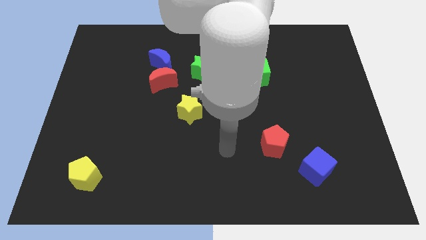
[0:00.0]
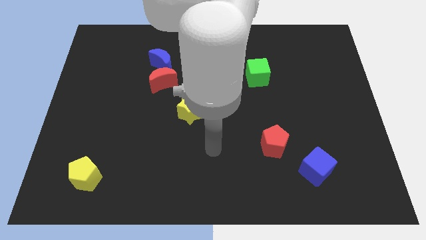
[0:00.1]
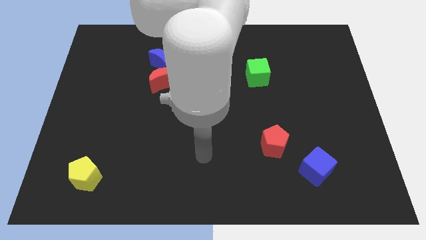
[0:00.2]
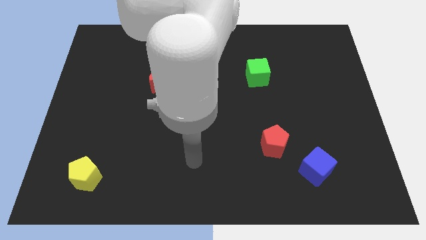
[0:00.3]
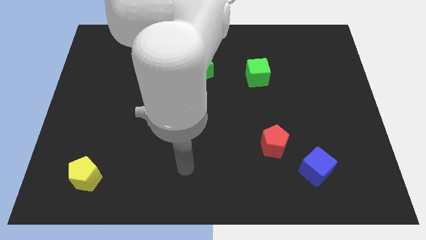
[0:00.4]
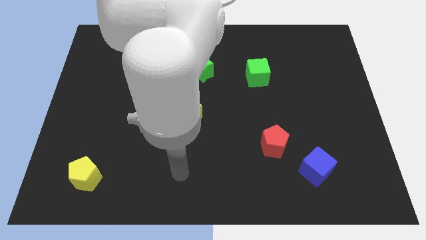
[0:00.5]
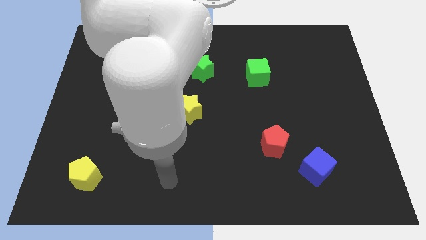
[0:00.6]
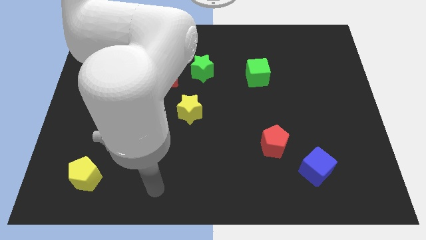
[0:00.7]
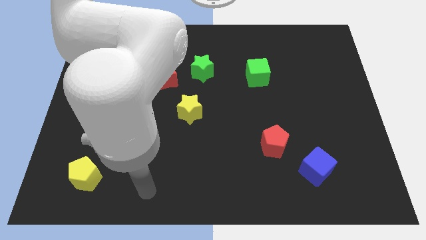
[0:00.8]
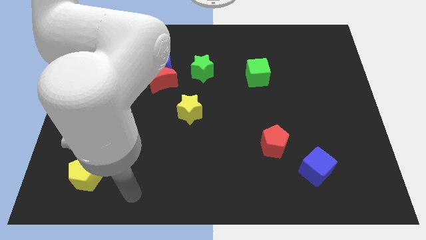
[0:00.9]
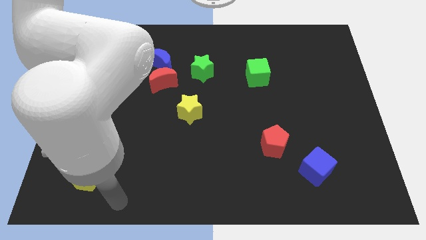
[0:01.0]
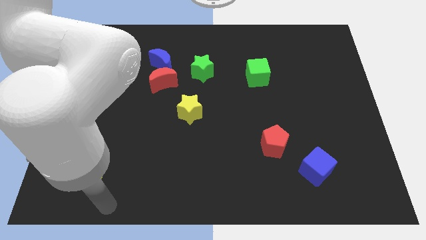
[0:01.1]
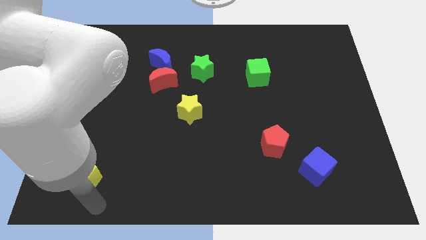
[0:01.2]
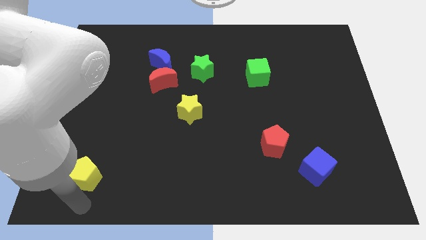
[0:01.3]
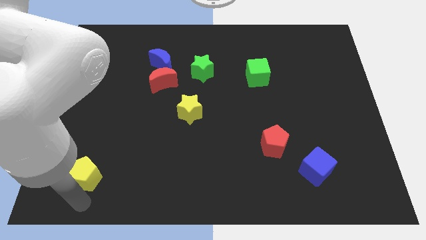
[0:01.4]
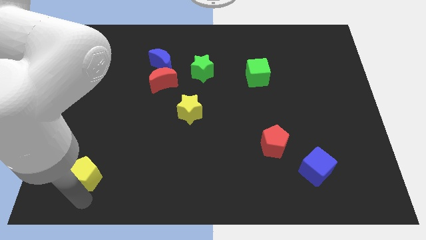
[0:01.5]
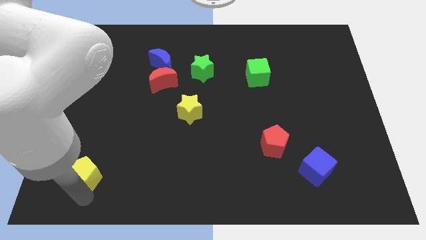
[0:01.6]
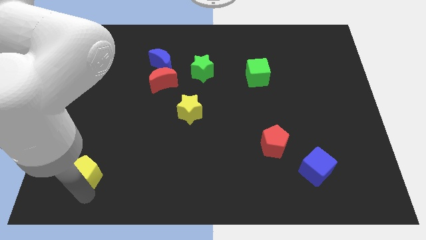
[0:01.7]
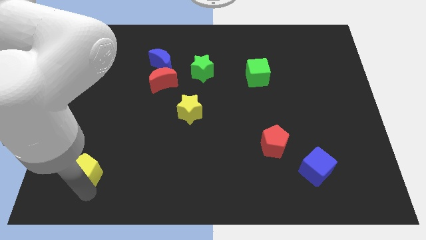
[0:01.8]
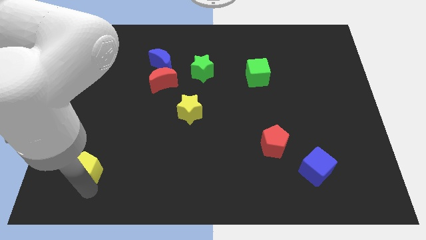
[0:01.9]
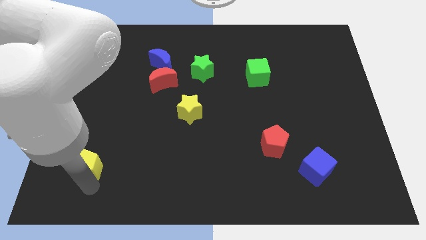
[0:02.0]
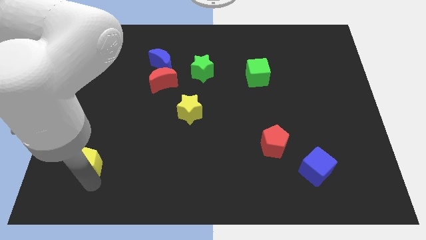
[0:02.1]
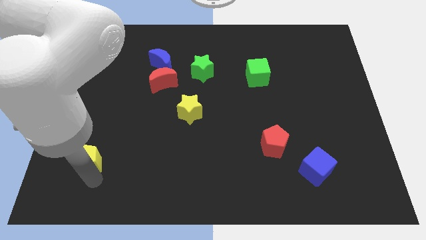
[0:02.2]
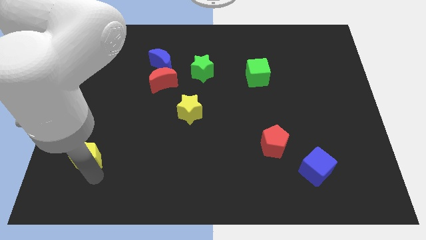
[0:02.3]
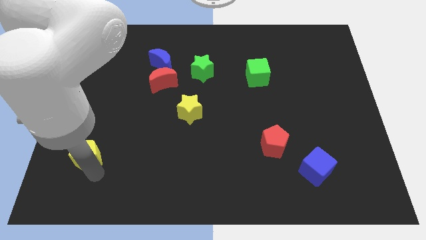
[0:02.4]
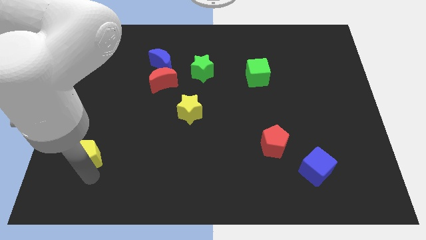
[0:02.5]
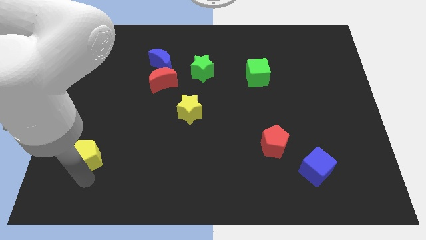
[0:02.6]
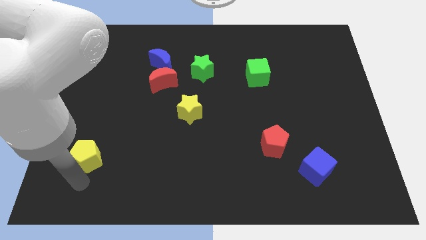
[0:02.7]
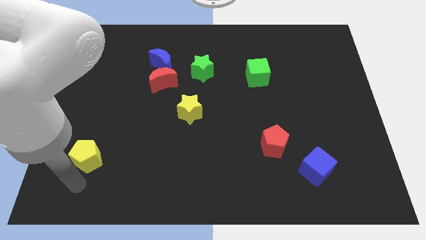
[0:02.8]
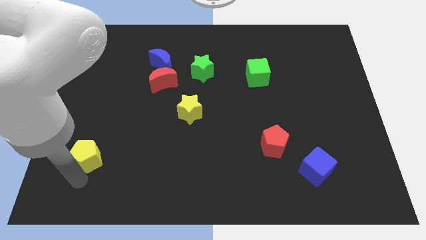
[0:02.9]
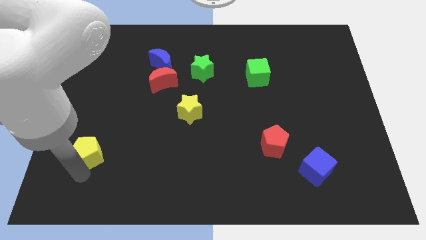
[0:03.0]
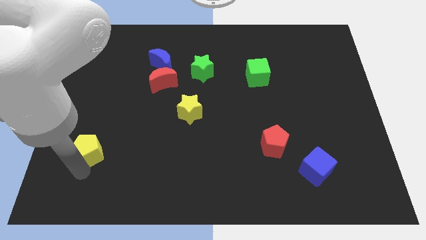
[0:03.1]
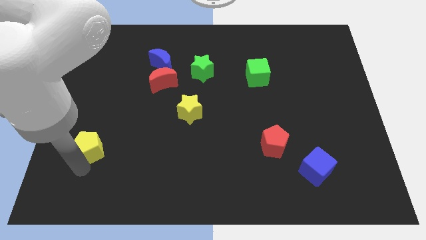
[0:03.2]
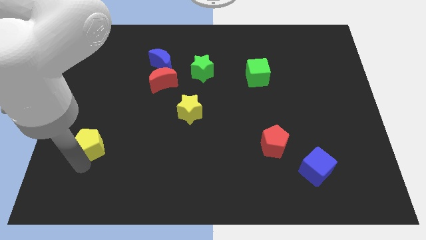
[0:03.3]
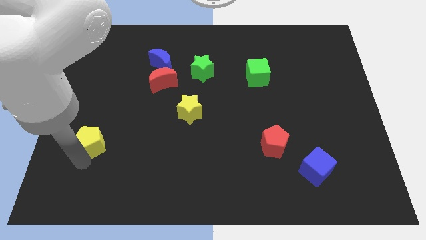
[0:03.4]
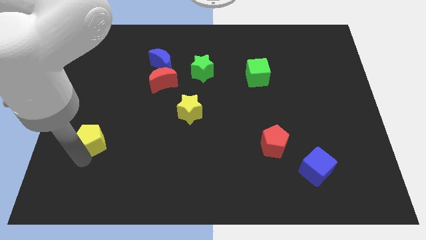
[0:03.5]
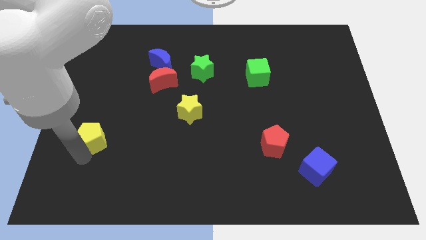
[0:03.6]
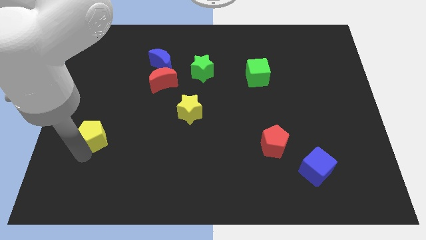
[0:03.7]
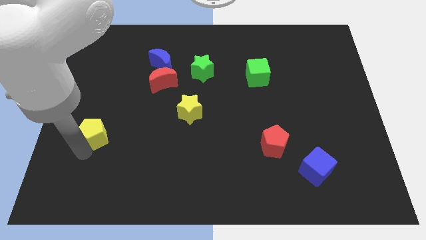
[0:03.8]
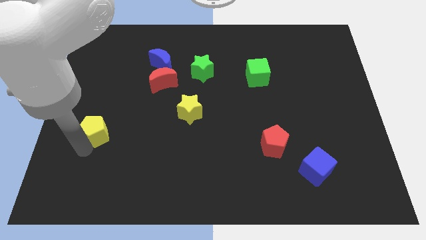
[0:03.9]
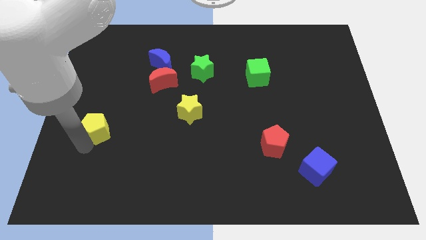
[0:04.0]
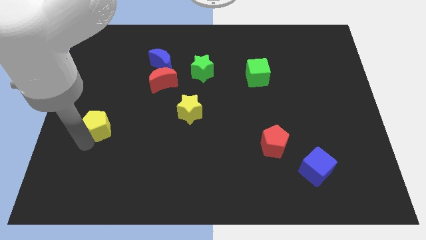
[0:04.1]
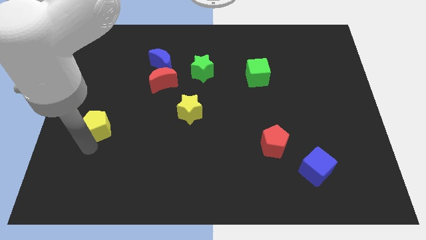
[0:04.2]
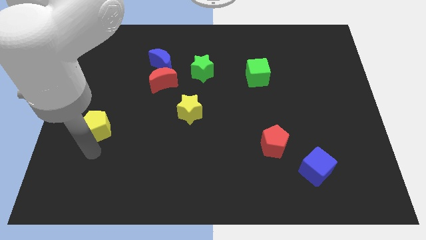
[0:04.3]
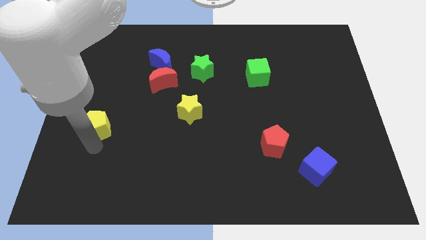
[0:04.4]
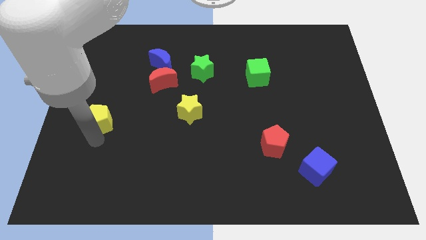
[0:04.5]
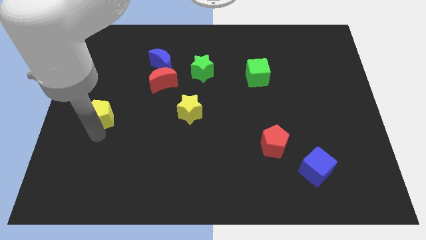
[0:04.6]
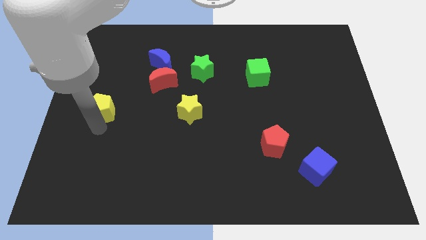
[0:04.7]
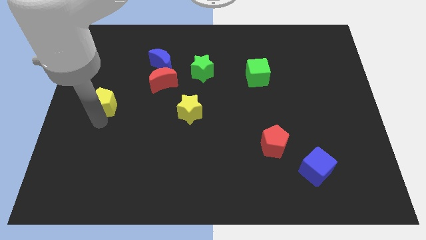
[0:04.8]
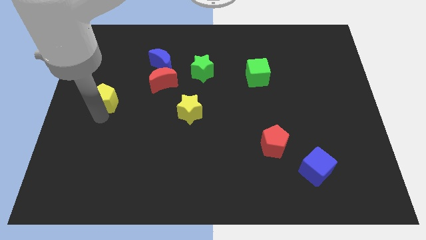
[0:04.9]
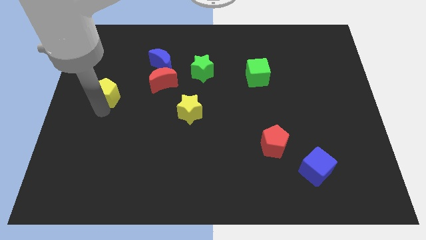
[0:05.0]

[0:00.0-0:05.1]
move the yellow pentagon to the left of the red moon

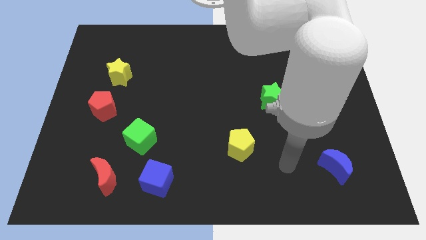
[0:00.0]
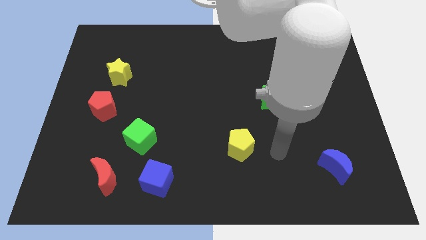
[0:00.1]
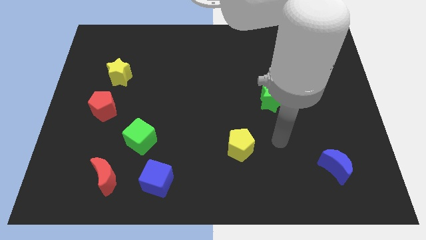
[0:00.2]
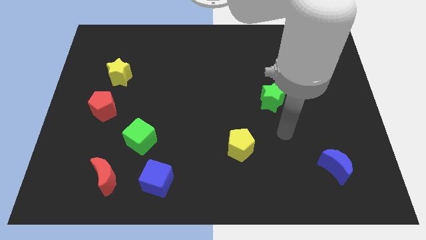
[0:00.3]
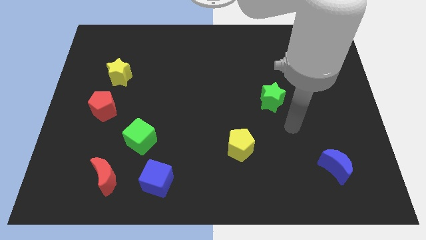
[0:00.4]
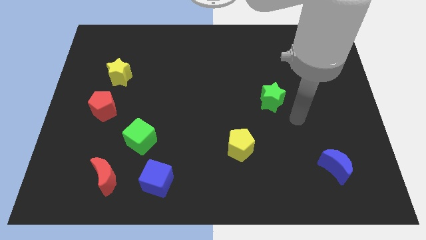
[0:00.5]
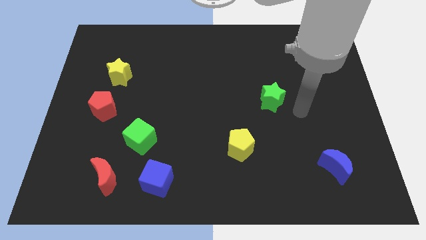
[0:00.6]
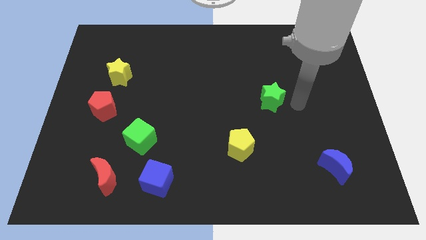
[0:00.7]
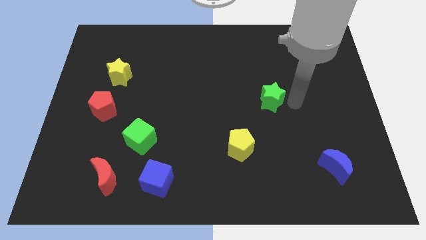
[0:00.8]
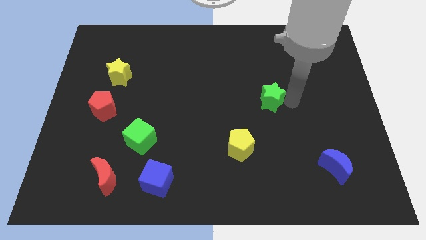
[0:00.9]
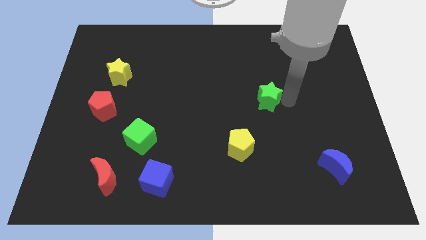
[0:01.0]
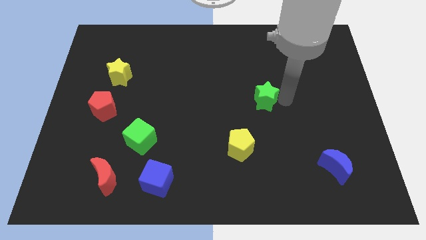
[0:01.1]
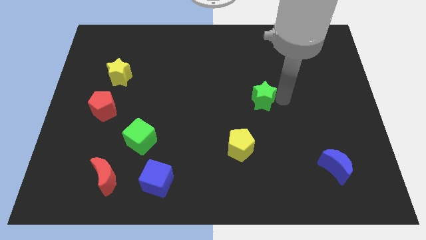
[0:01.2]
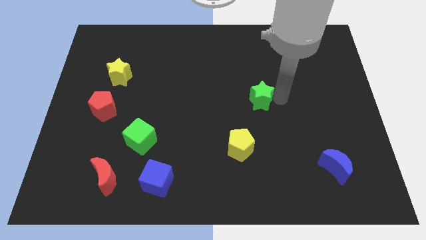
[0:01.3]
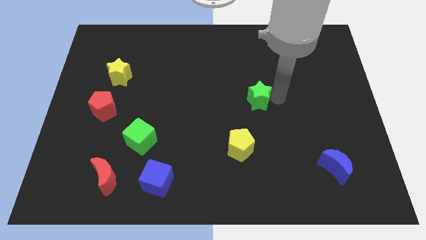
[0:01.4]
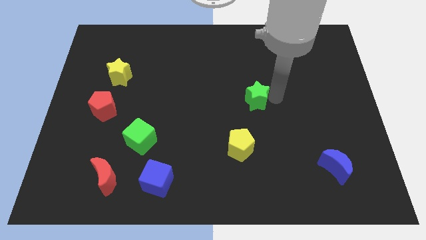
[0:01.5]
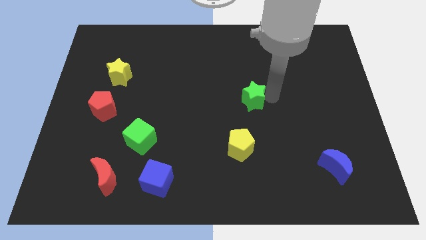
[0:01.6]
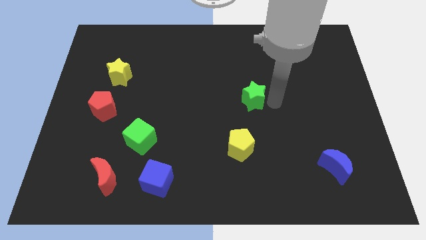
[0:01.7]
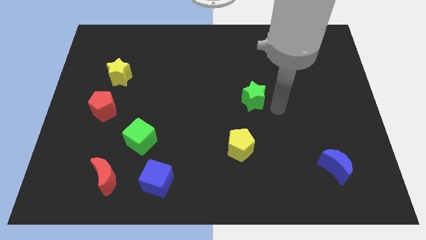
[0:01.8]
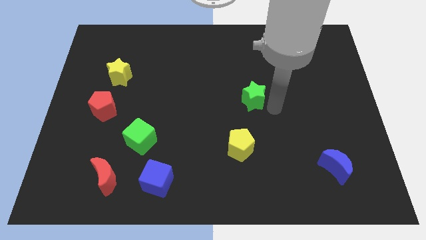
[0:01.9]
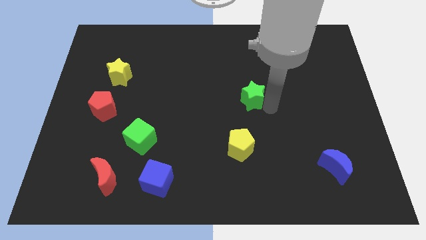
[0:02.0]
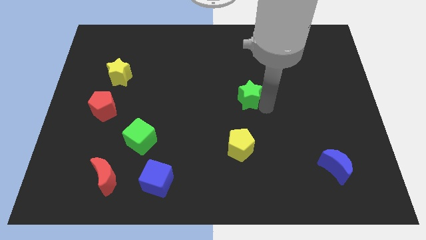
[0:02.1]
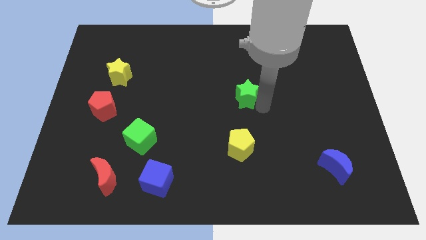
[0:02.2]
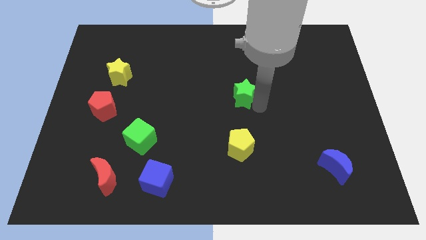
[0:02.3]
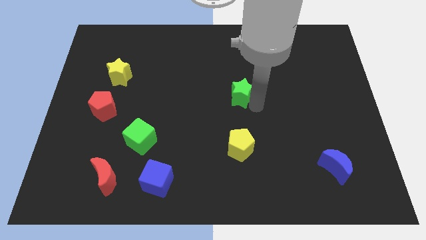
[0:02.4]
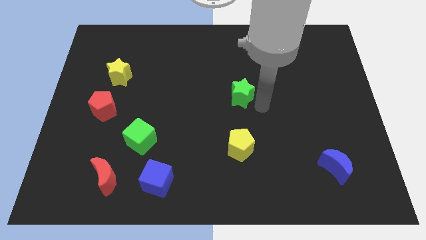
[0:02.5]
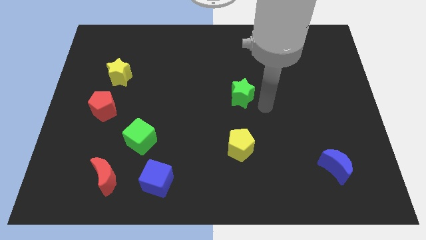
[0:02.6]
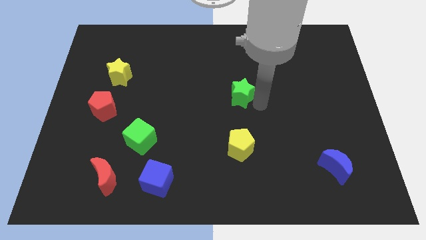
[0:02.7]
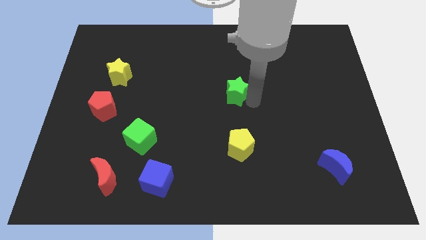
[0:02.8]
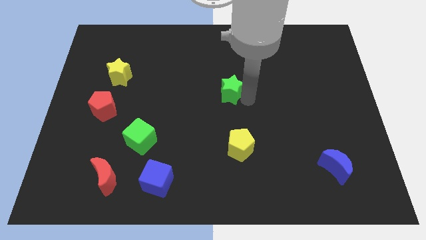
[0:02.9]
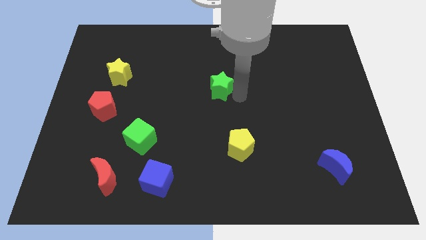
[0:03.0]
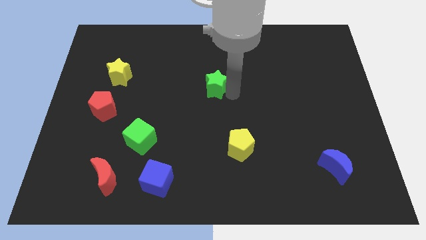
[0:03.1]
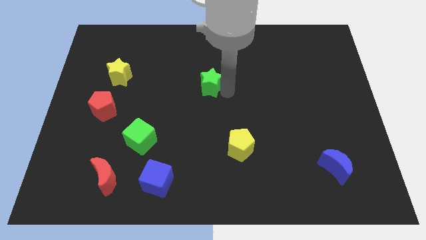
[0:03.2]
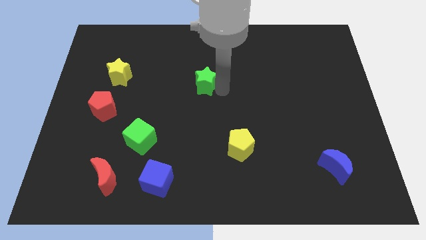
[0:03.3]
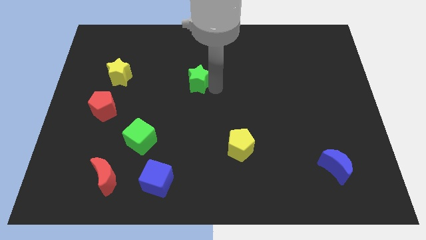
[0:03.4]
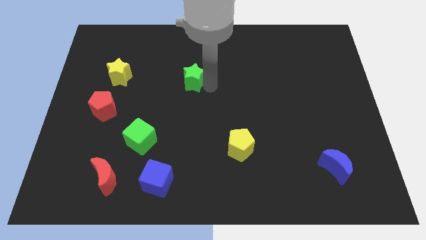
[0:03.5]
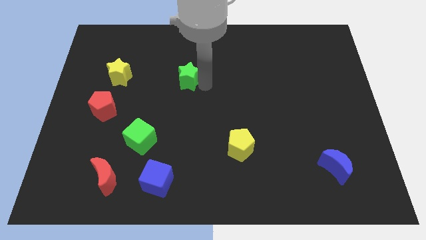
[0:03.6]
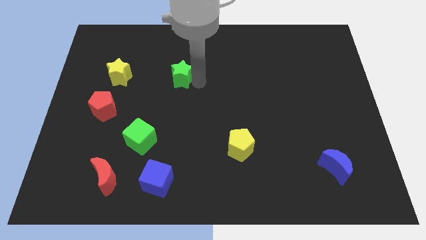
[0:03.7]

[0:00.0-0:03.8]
slide the green star to the right side of the yellow star
